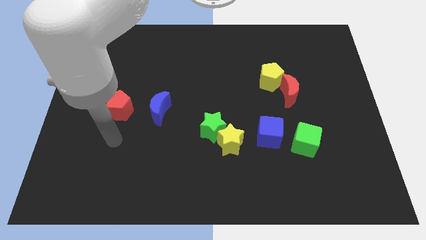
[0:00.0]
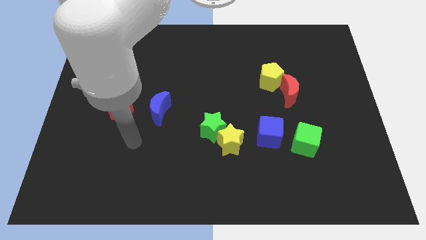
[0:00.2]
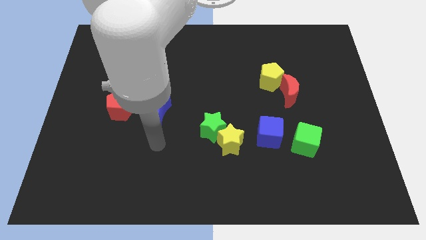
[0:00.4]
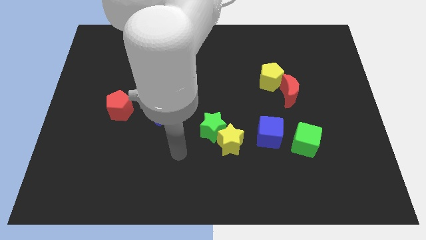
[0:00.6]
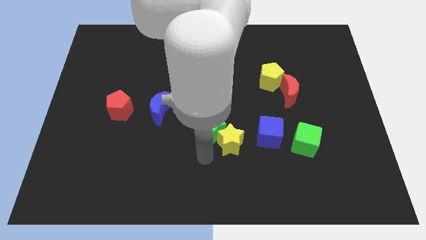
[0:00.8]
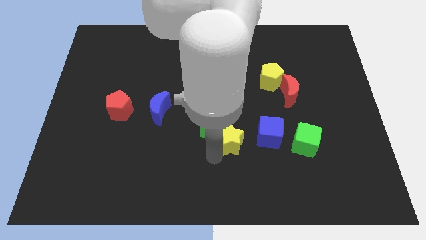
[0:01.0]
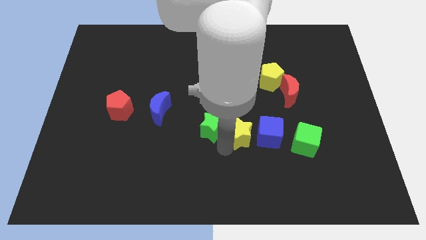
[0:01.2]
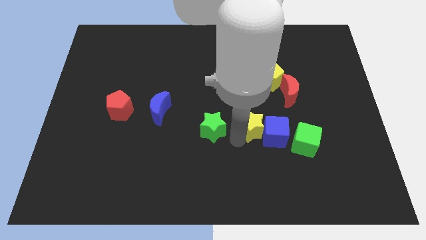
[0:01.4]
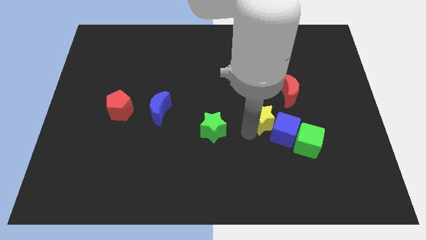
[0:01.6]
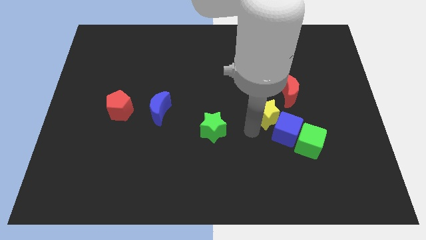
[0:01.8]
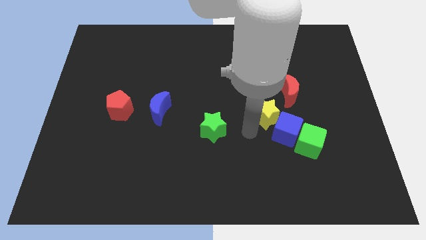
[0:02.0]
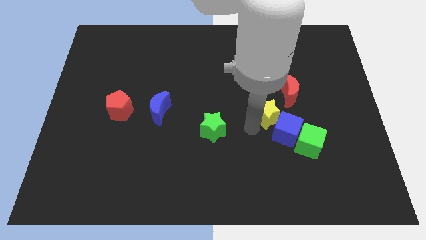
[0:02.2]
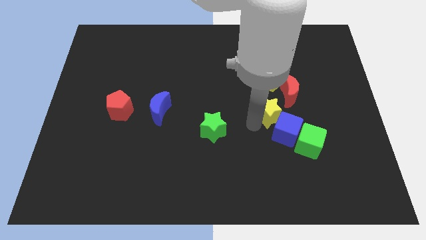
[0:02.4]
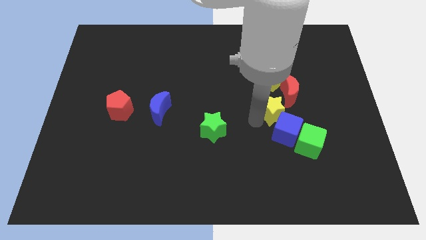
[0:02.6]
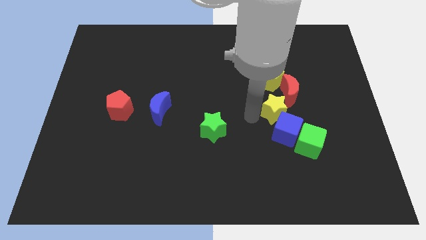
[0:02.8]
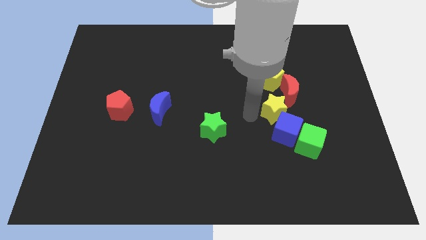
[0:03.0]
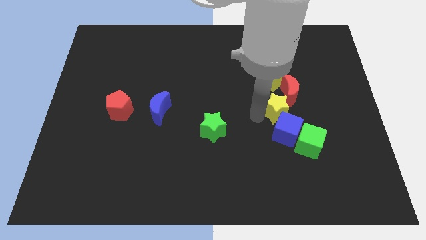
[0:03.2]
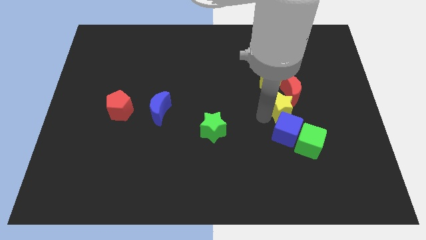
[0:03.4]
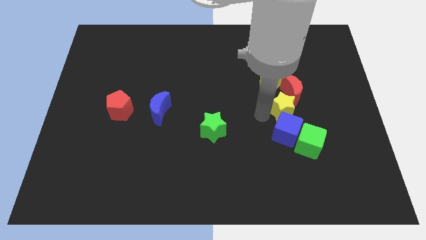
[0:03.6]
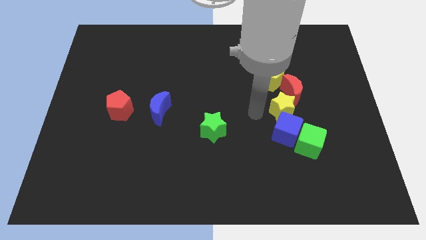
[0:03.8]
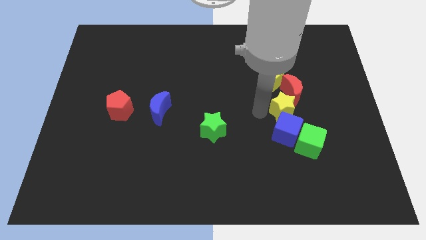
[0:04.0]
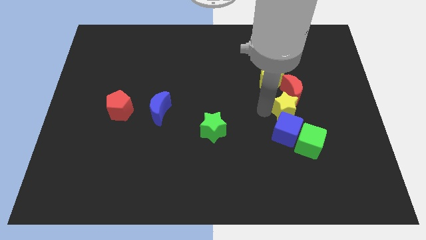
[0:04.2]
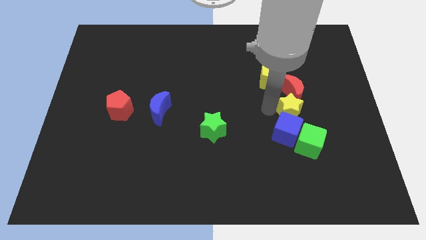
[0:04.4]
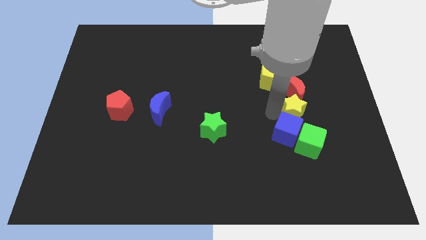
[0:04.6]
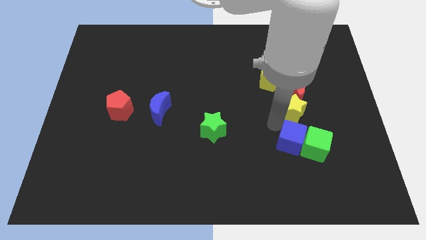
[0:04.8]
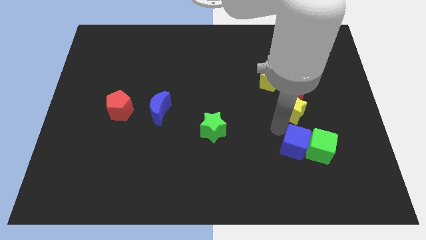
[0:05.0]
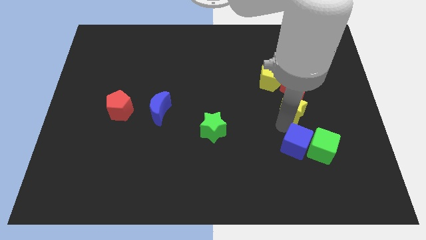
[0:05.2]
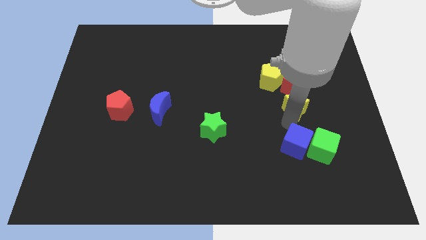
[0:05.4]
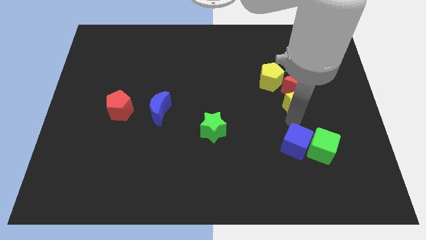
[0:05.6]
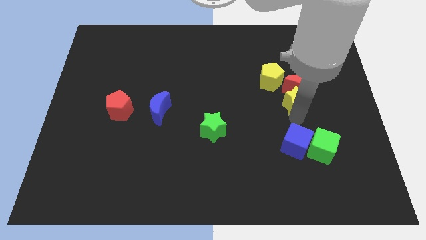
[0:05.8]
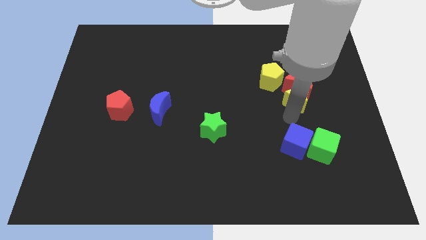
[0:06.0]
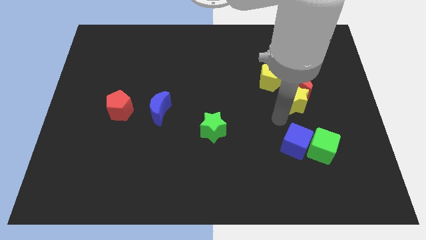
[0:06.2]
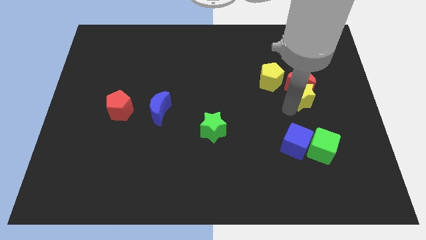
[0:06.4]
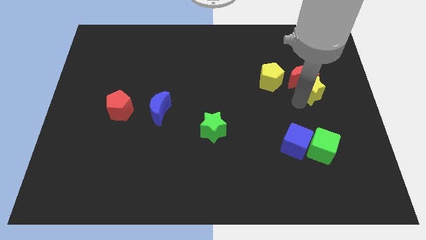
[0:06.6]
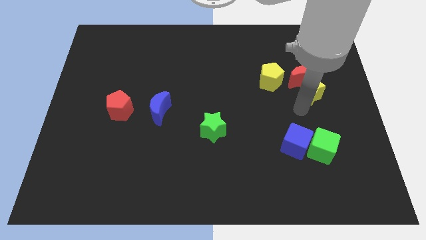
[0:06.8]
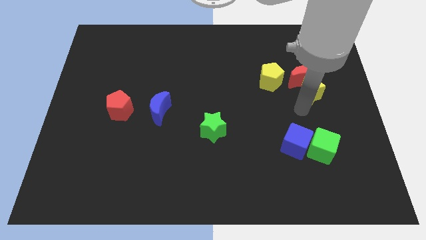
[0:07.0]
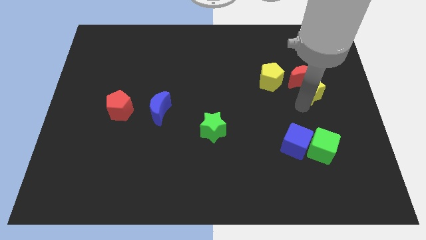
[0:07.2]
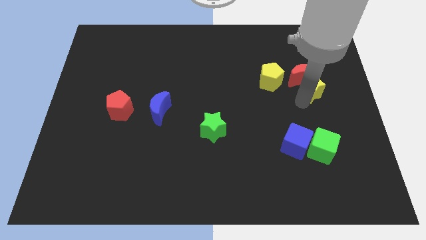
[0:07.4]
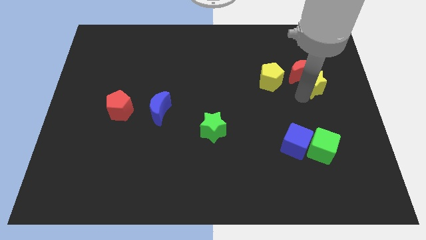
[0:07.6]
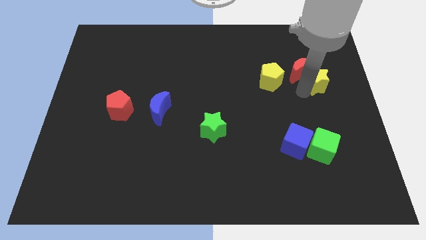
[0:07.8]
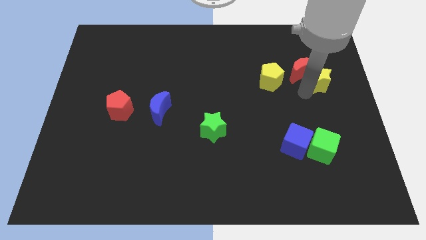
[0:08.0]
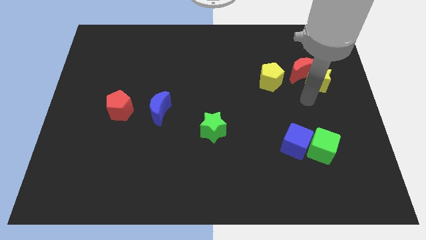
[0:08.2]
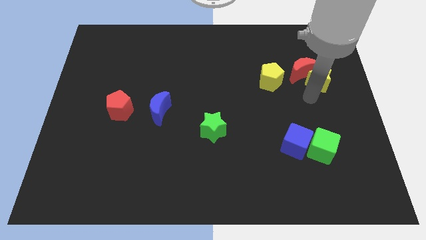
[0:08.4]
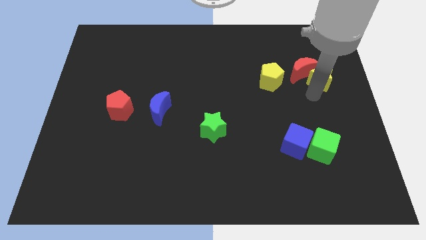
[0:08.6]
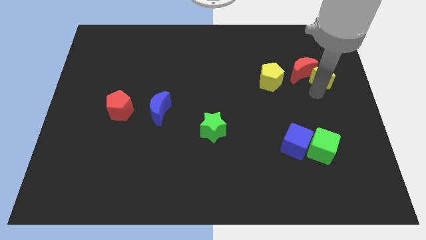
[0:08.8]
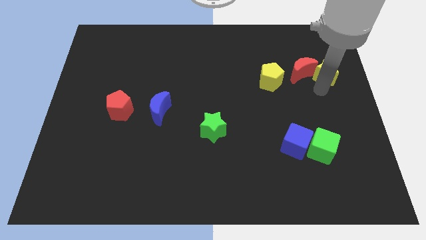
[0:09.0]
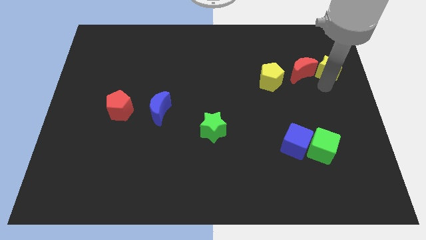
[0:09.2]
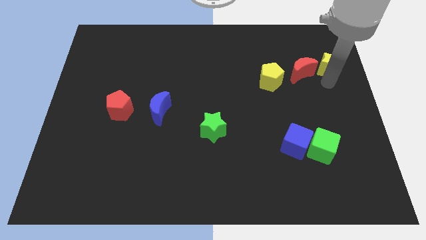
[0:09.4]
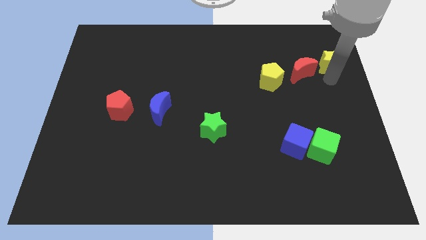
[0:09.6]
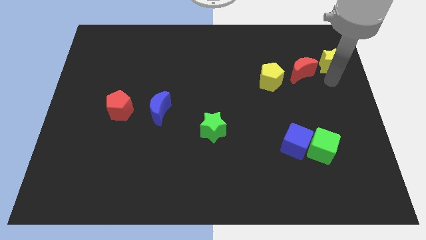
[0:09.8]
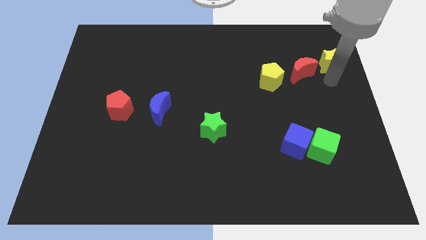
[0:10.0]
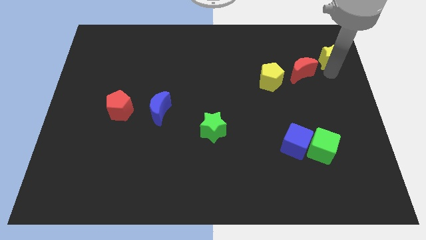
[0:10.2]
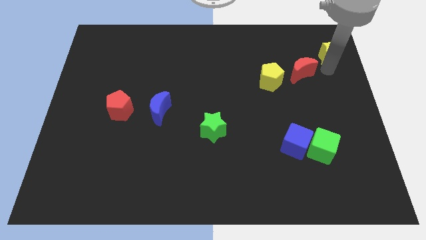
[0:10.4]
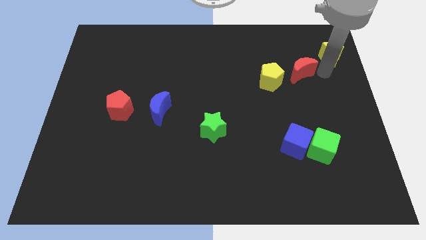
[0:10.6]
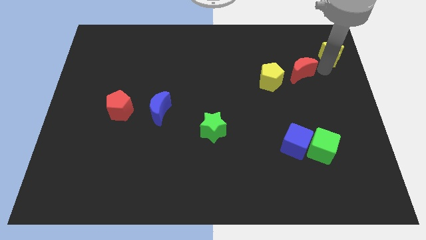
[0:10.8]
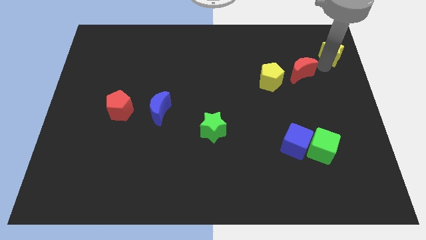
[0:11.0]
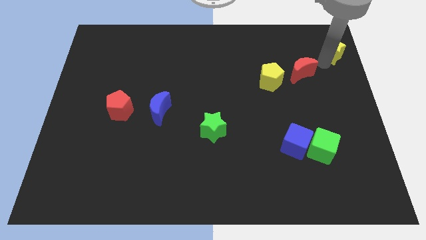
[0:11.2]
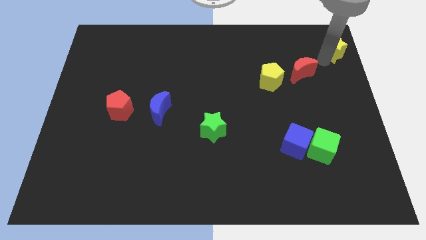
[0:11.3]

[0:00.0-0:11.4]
move the yellow star to the top right of the board

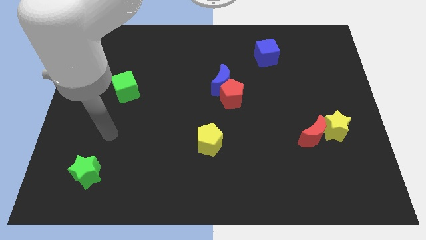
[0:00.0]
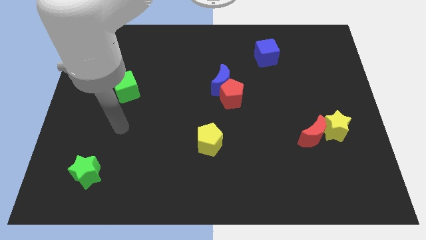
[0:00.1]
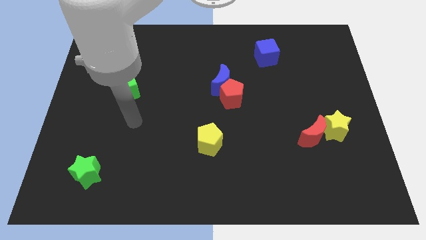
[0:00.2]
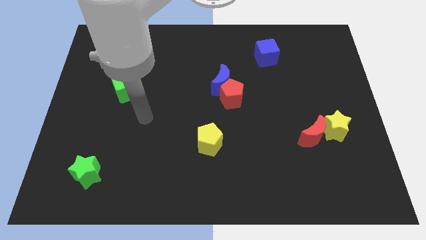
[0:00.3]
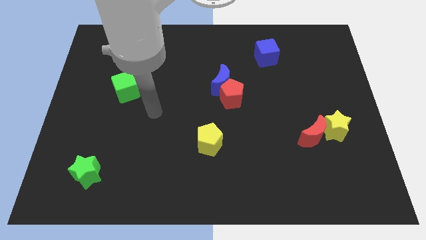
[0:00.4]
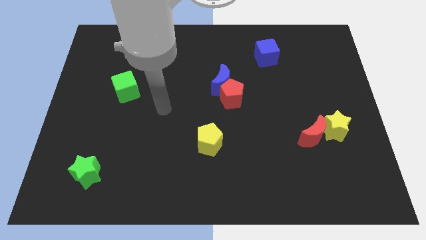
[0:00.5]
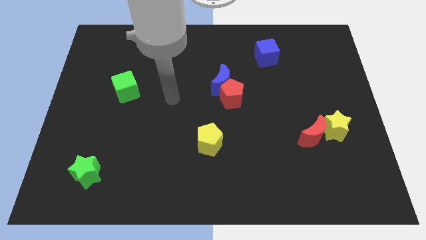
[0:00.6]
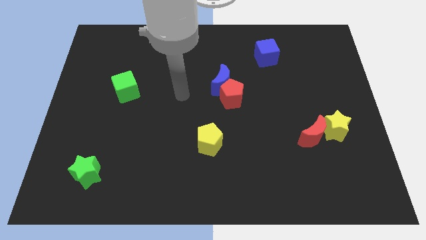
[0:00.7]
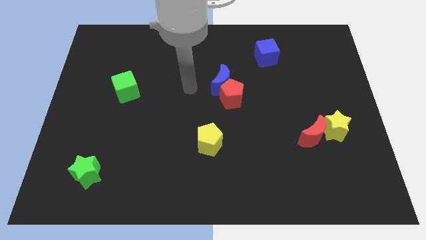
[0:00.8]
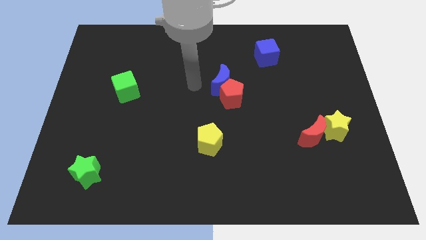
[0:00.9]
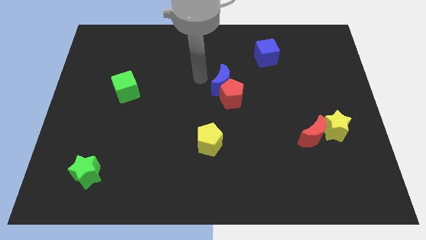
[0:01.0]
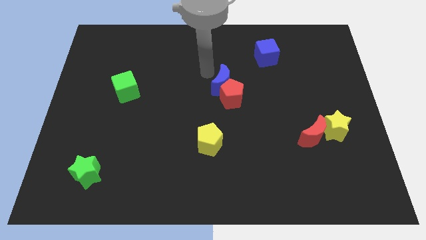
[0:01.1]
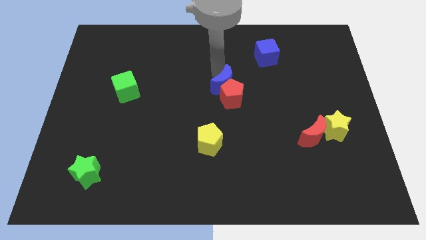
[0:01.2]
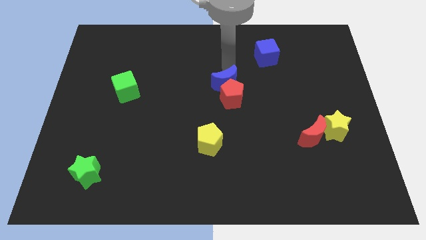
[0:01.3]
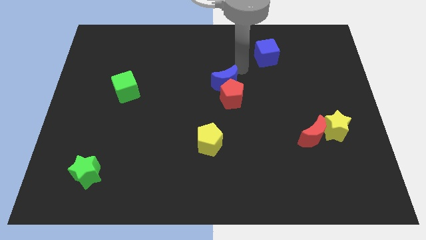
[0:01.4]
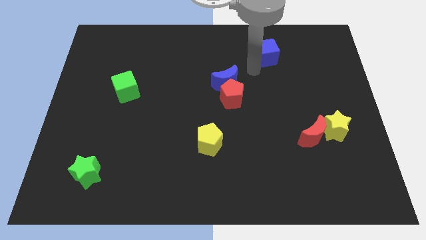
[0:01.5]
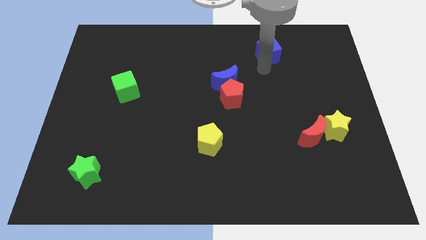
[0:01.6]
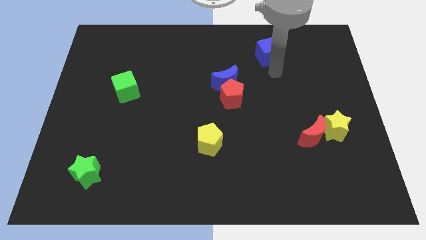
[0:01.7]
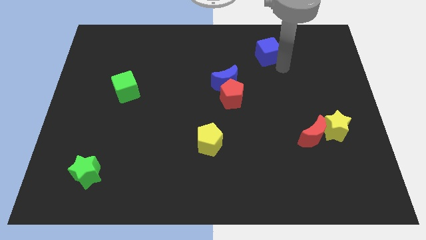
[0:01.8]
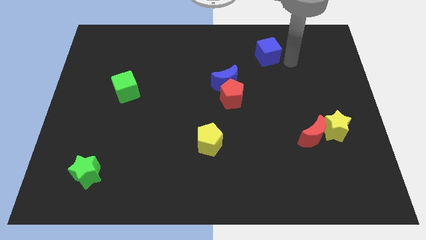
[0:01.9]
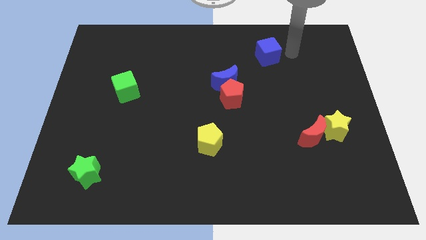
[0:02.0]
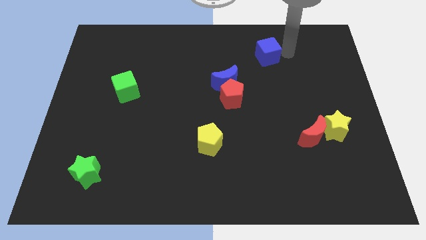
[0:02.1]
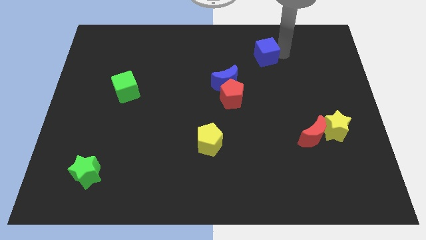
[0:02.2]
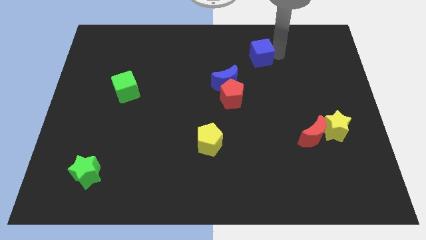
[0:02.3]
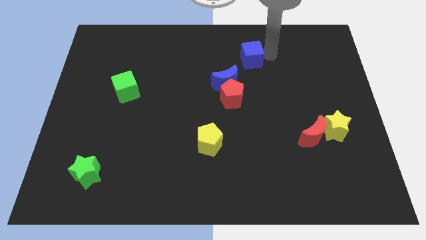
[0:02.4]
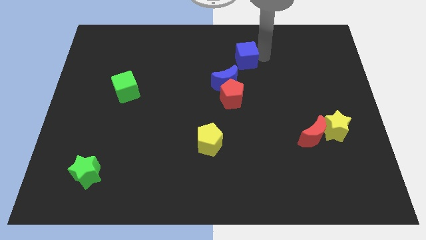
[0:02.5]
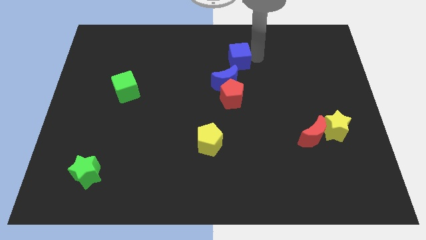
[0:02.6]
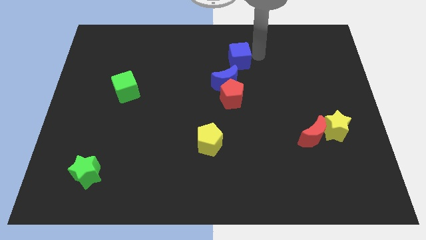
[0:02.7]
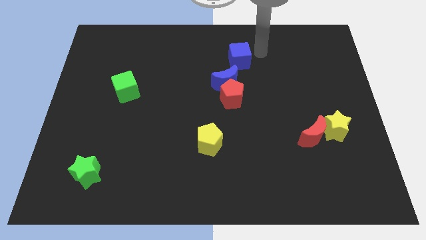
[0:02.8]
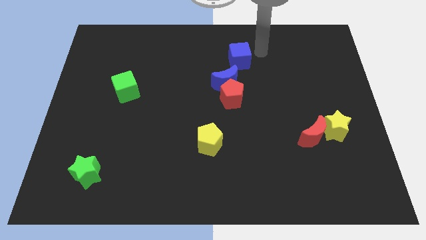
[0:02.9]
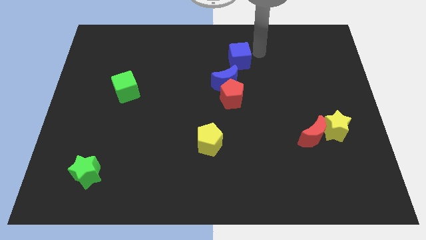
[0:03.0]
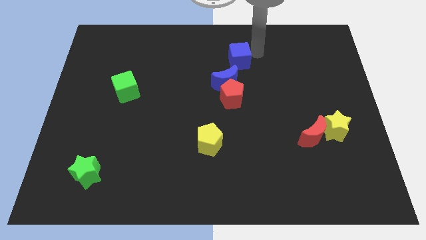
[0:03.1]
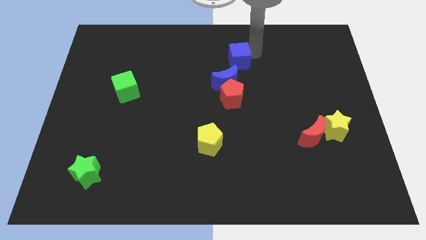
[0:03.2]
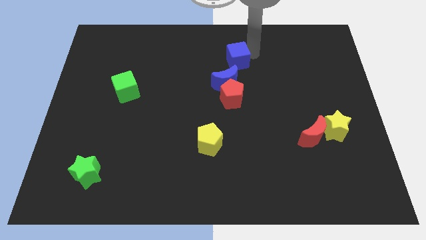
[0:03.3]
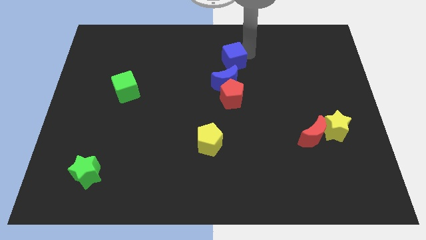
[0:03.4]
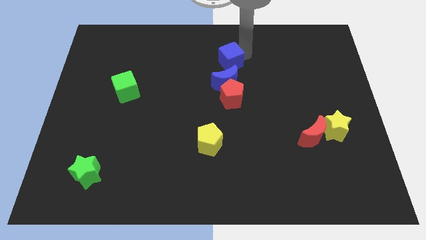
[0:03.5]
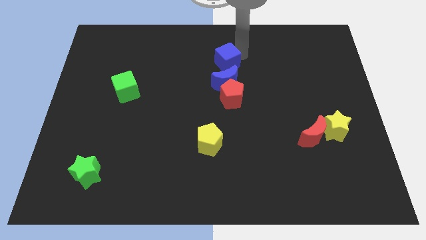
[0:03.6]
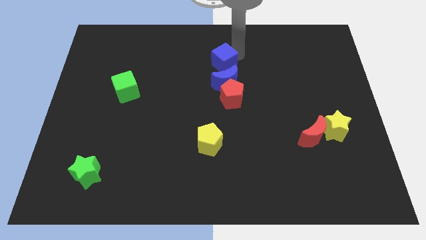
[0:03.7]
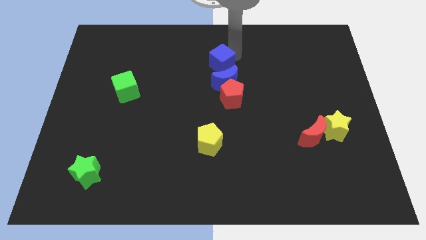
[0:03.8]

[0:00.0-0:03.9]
move the blue cube to the middle of the board
